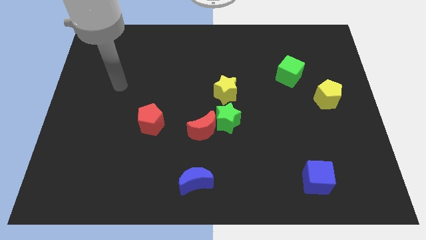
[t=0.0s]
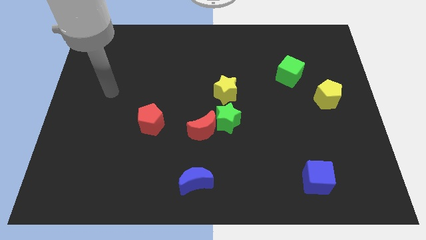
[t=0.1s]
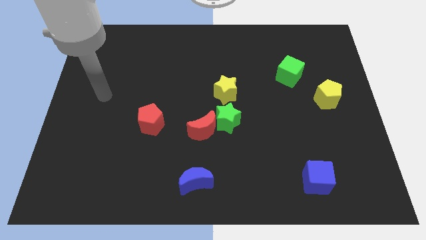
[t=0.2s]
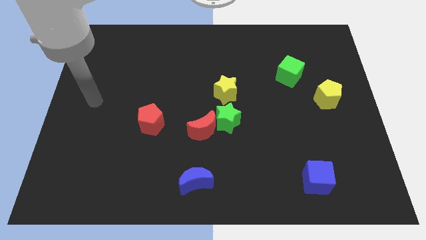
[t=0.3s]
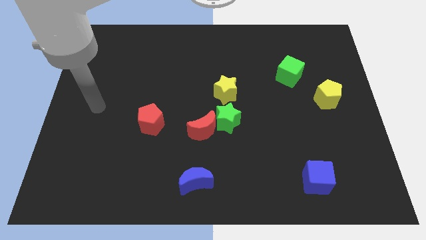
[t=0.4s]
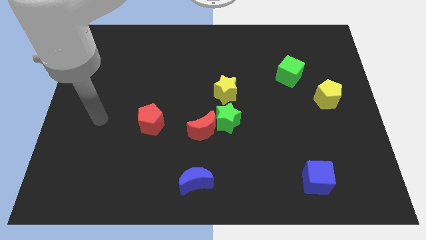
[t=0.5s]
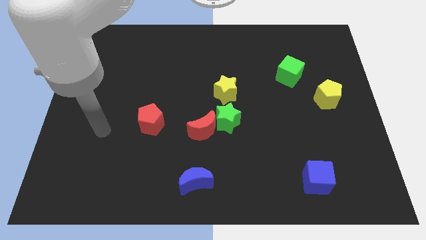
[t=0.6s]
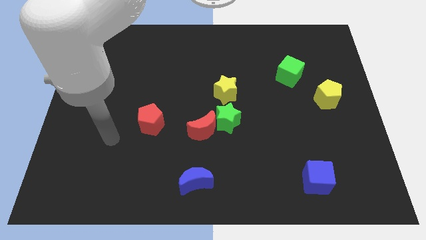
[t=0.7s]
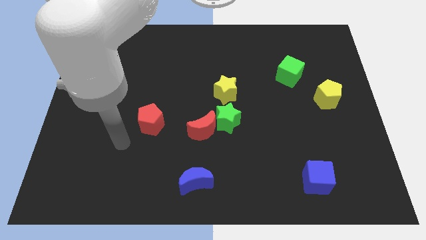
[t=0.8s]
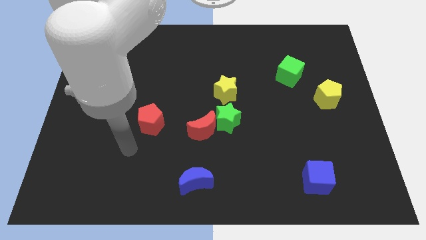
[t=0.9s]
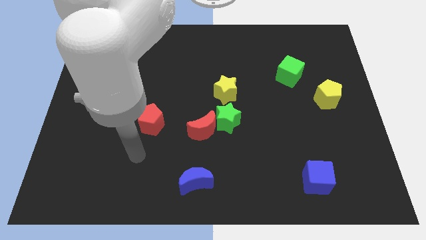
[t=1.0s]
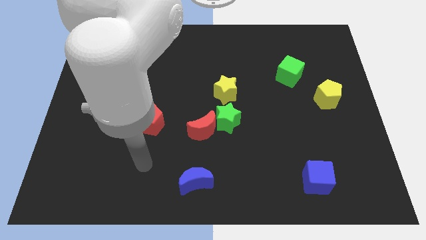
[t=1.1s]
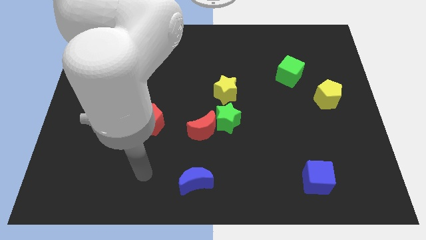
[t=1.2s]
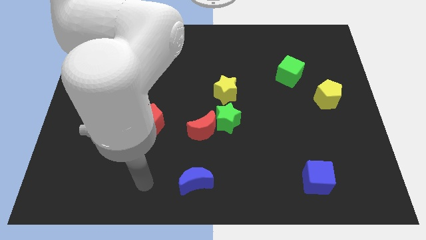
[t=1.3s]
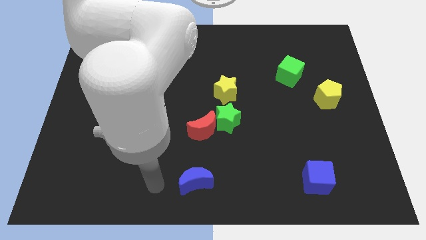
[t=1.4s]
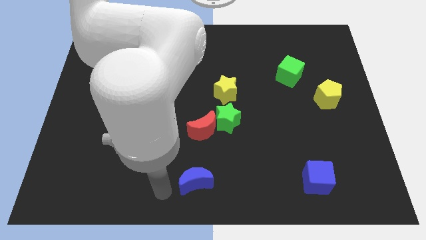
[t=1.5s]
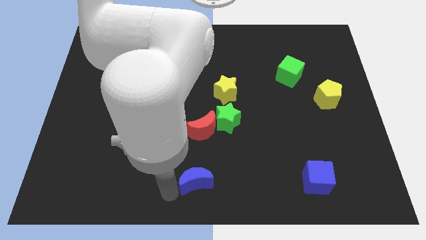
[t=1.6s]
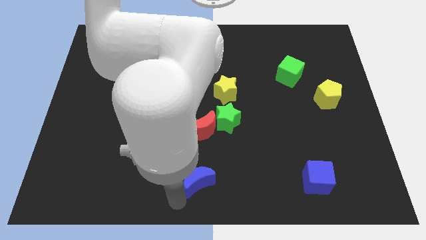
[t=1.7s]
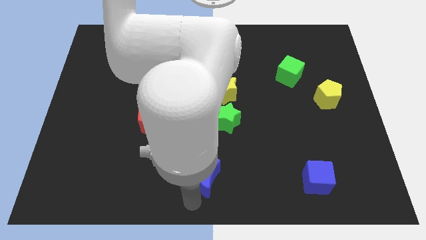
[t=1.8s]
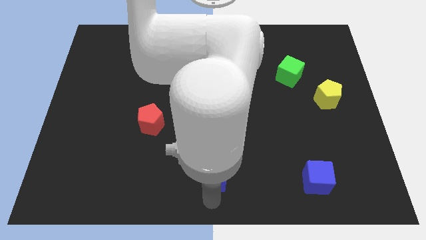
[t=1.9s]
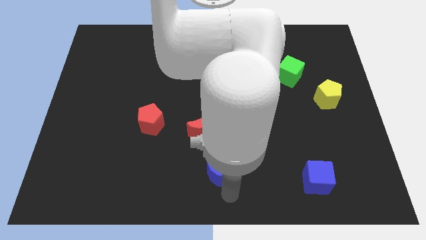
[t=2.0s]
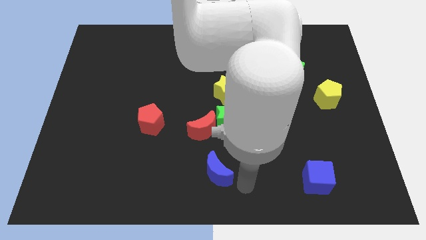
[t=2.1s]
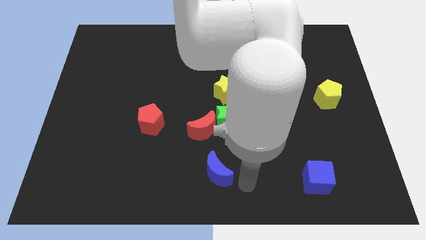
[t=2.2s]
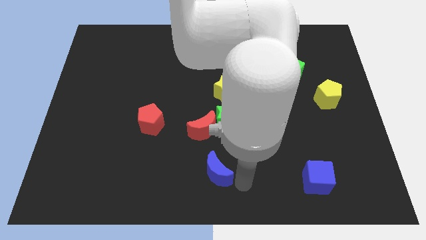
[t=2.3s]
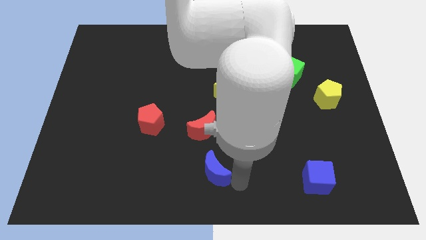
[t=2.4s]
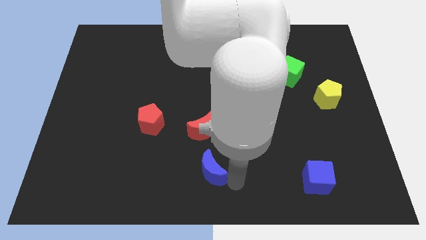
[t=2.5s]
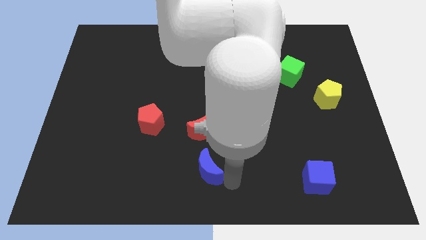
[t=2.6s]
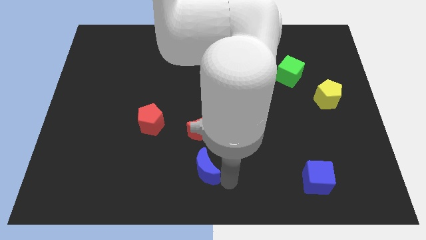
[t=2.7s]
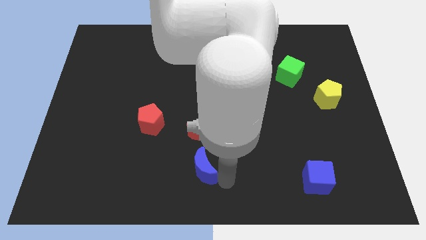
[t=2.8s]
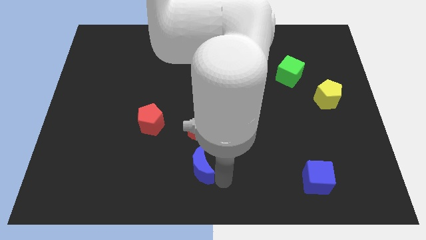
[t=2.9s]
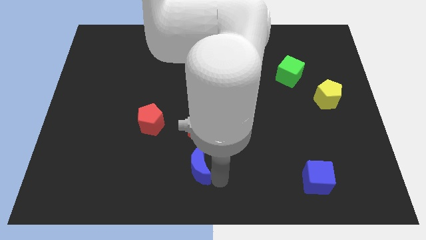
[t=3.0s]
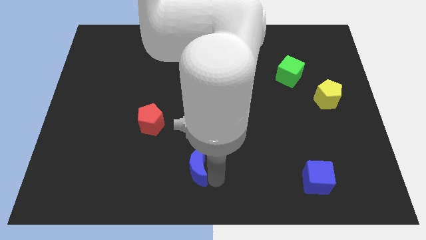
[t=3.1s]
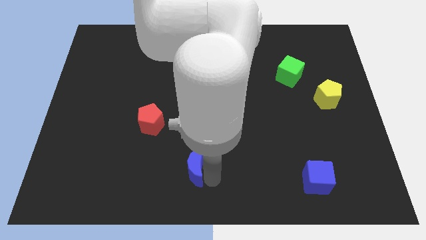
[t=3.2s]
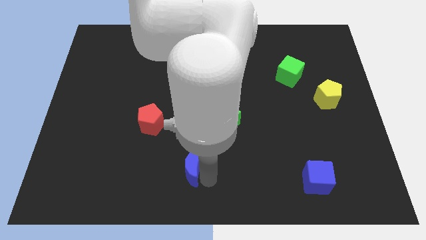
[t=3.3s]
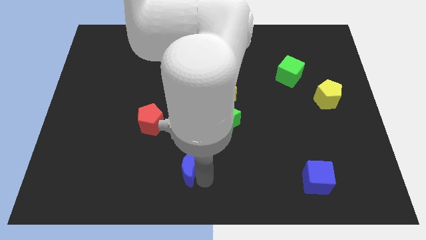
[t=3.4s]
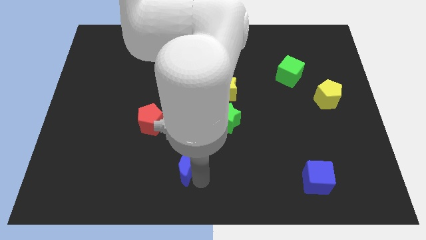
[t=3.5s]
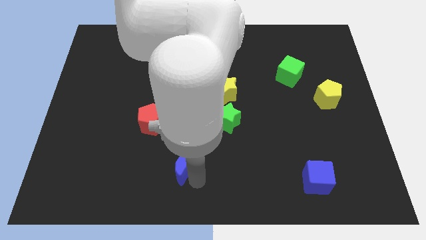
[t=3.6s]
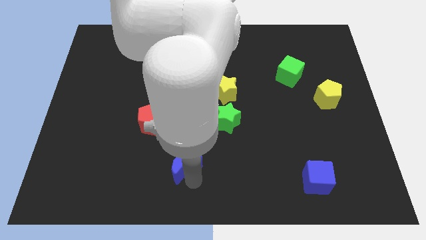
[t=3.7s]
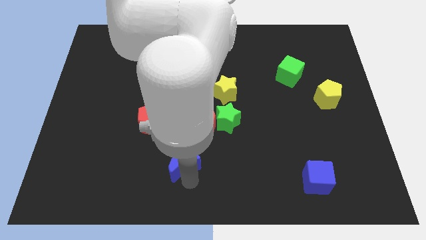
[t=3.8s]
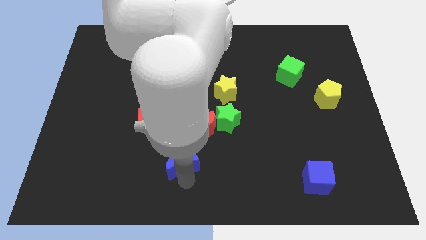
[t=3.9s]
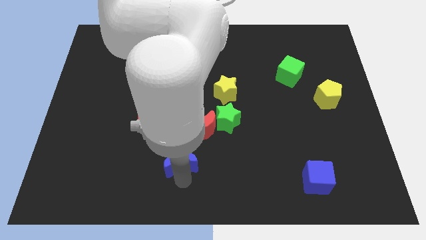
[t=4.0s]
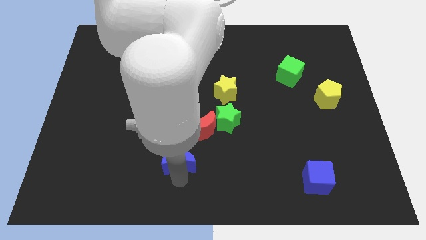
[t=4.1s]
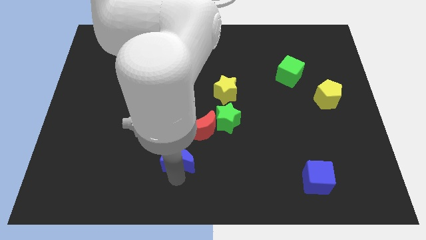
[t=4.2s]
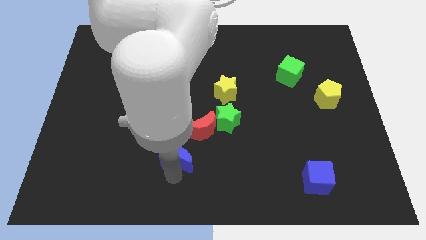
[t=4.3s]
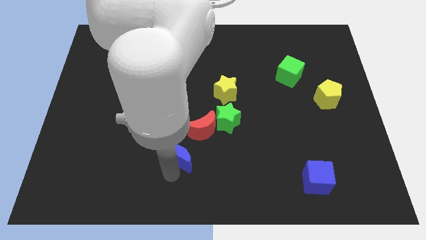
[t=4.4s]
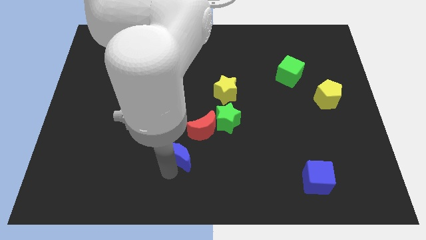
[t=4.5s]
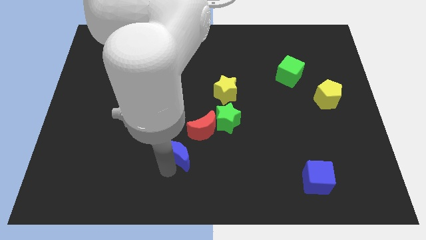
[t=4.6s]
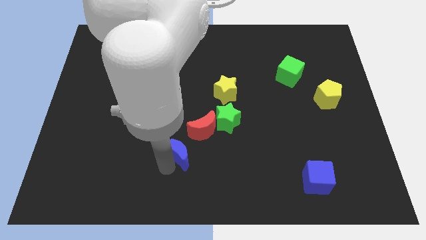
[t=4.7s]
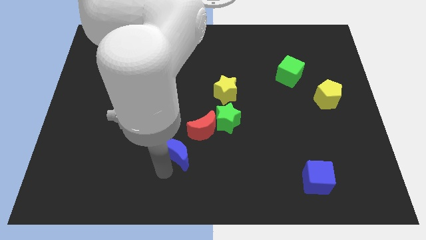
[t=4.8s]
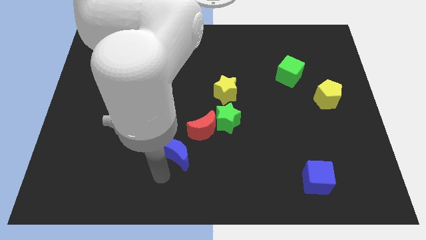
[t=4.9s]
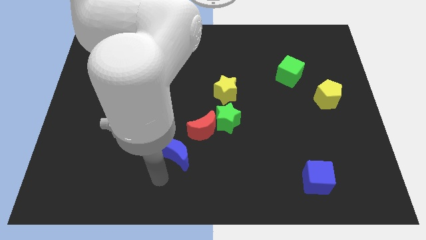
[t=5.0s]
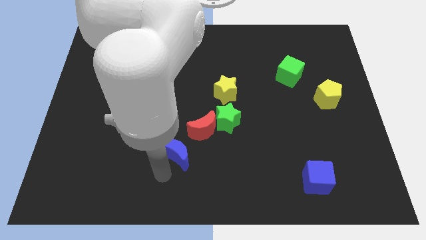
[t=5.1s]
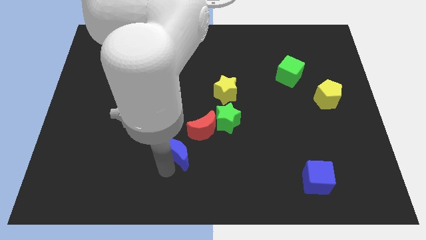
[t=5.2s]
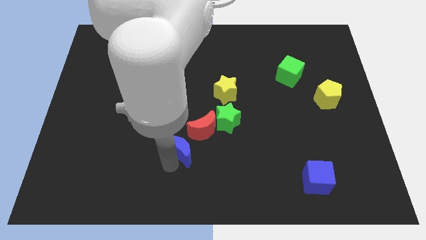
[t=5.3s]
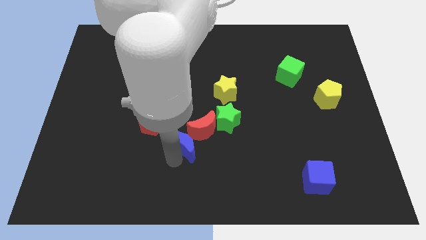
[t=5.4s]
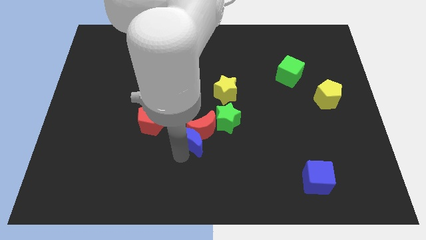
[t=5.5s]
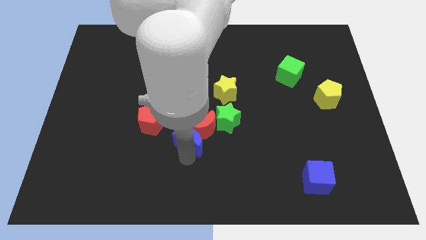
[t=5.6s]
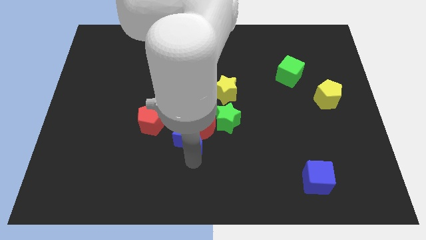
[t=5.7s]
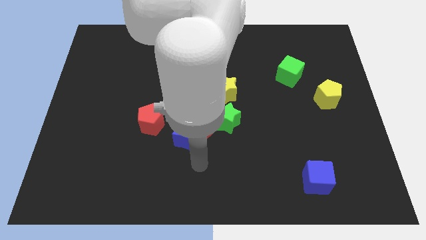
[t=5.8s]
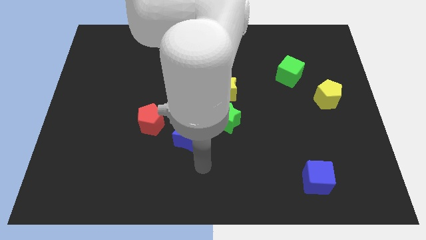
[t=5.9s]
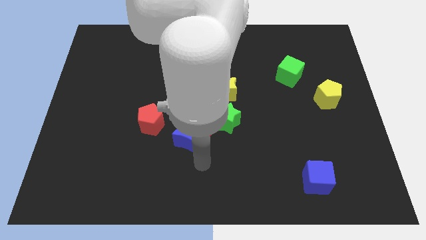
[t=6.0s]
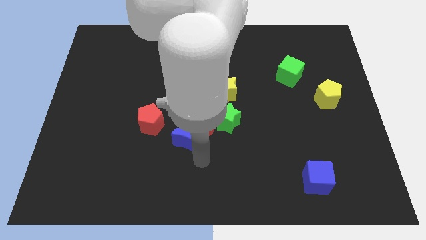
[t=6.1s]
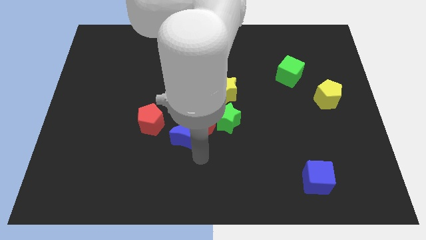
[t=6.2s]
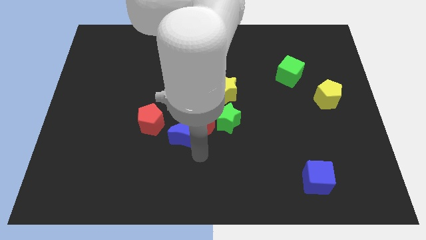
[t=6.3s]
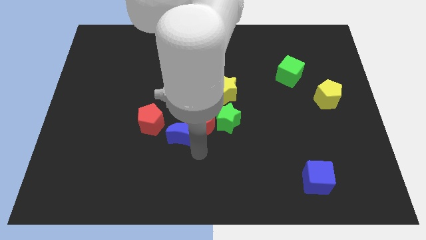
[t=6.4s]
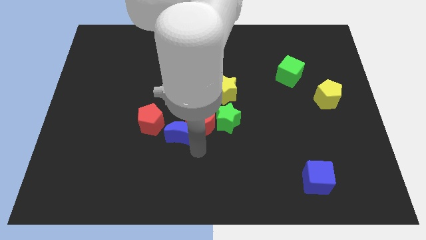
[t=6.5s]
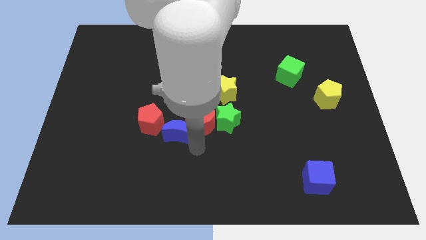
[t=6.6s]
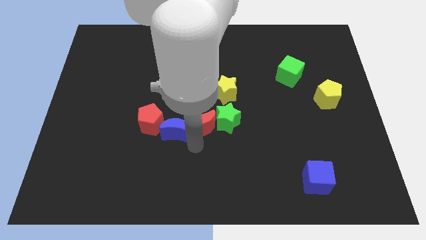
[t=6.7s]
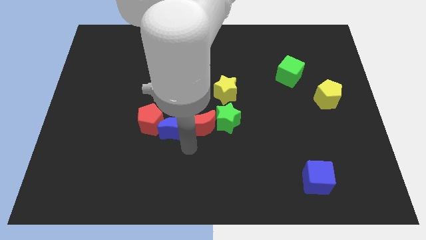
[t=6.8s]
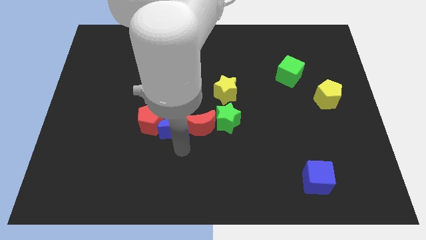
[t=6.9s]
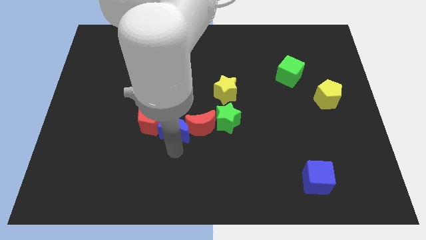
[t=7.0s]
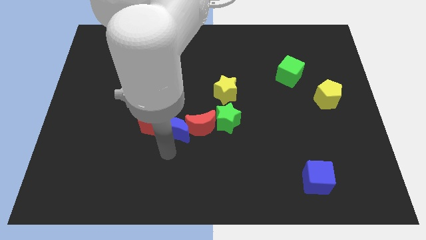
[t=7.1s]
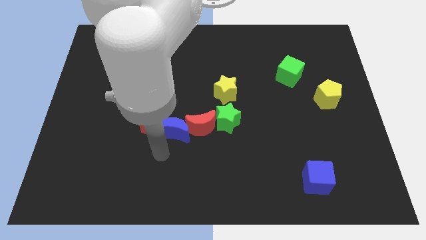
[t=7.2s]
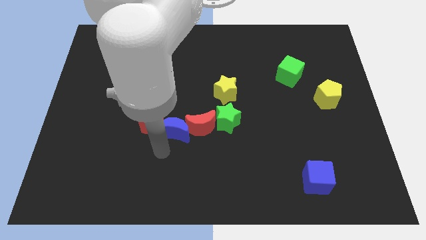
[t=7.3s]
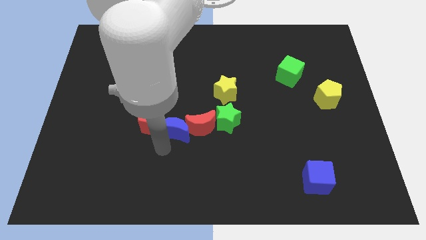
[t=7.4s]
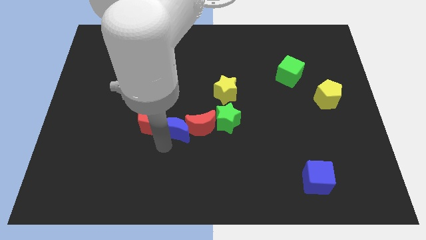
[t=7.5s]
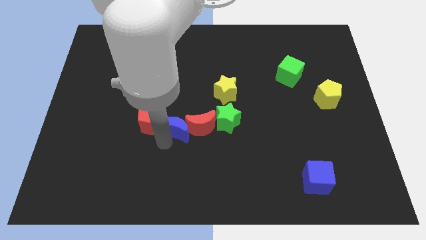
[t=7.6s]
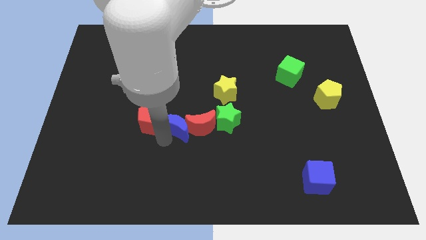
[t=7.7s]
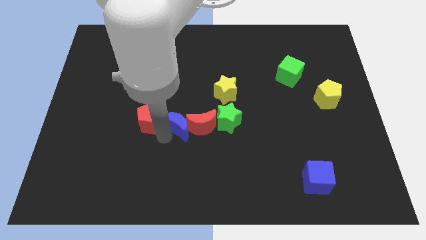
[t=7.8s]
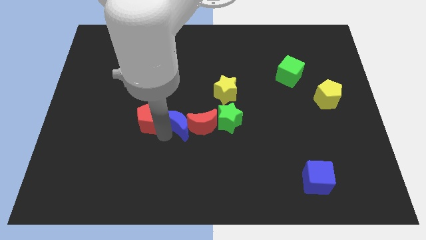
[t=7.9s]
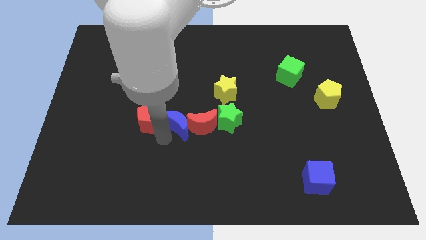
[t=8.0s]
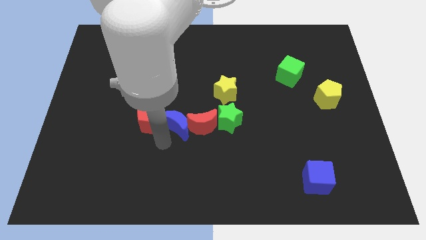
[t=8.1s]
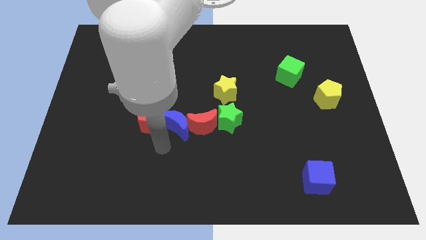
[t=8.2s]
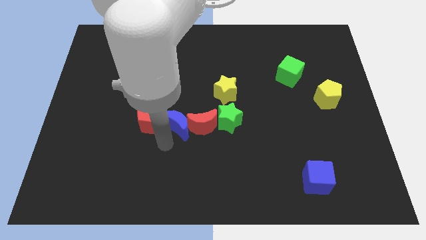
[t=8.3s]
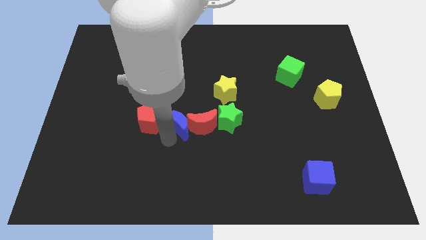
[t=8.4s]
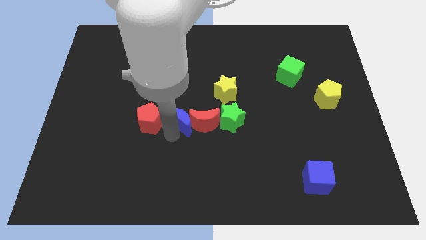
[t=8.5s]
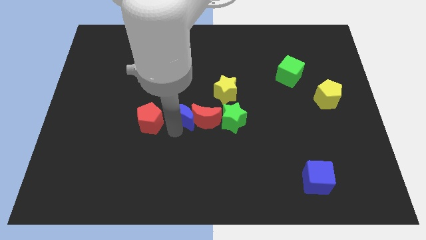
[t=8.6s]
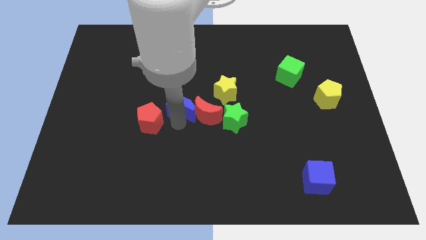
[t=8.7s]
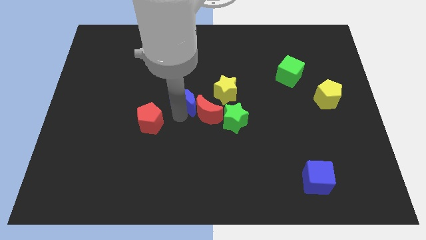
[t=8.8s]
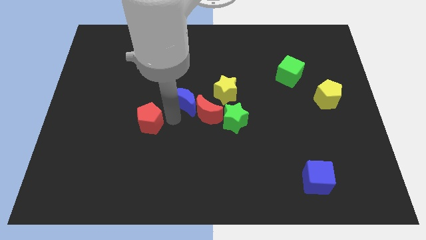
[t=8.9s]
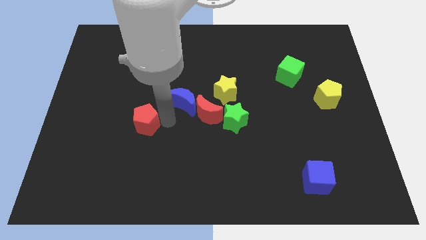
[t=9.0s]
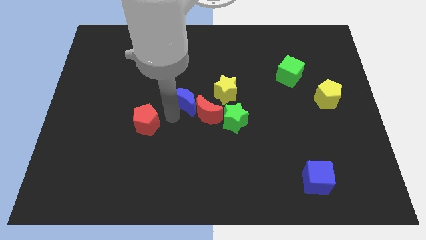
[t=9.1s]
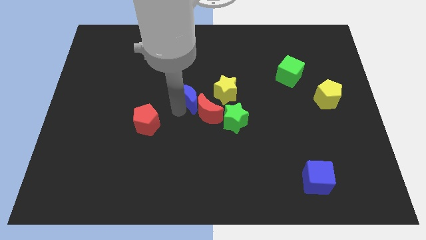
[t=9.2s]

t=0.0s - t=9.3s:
push the blue moon to the top side of the red moon
